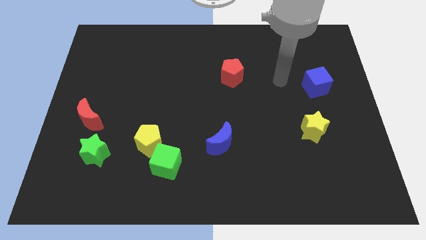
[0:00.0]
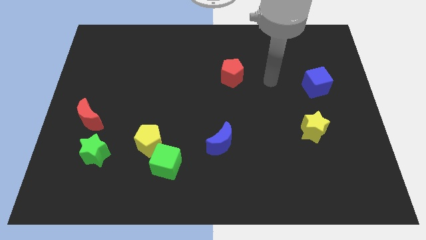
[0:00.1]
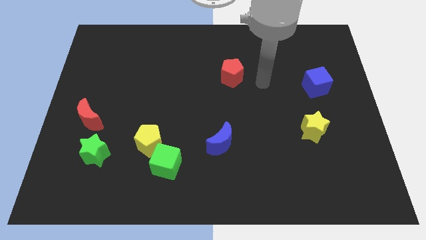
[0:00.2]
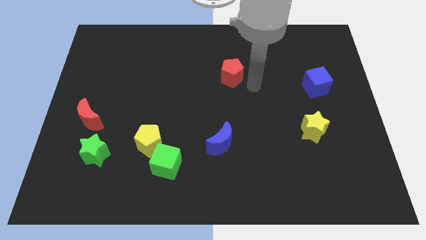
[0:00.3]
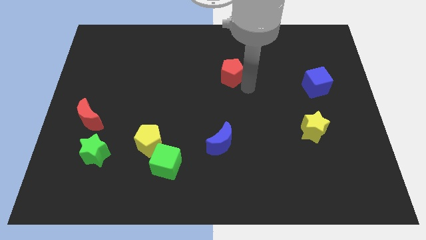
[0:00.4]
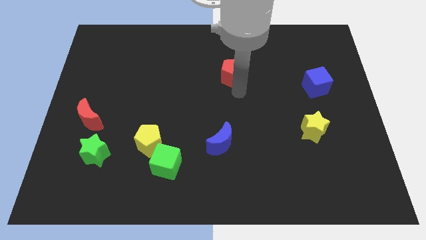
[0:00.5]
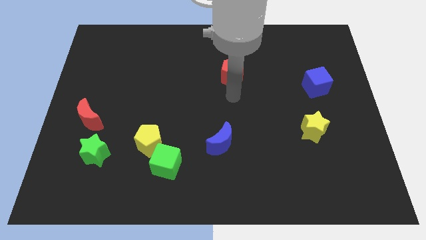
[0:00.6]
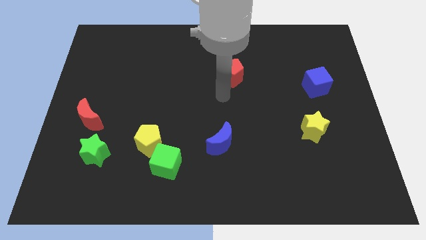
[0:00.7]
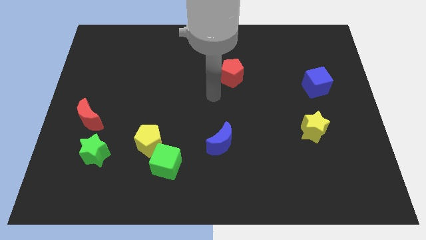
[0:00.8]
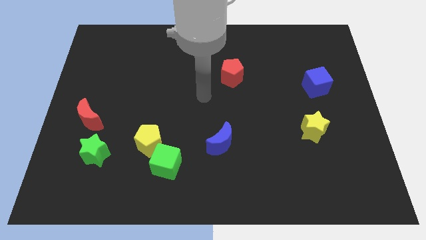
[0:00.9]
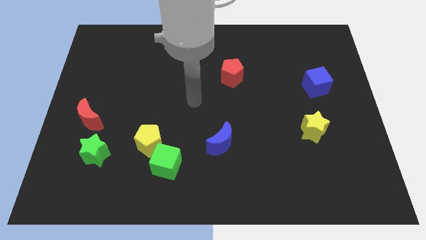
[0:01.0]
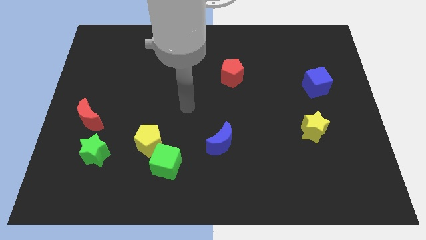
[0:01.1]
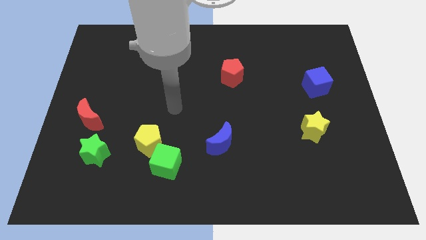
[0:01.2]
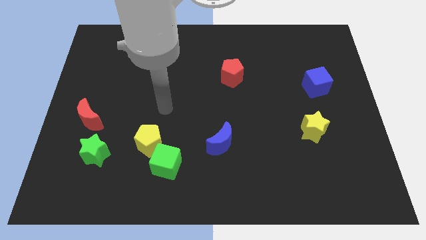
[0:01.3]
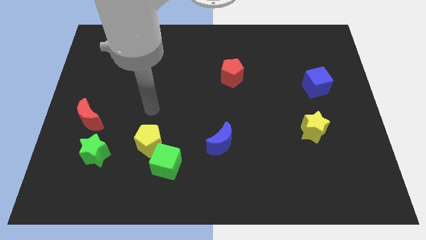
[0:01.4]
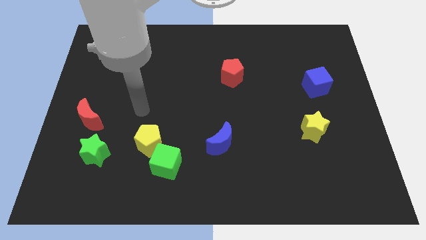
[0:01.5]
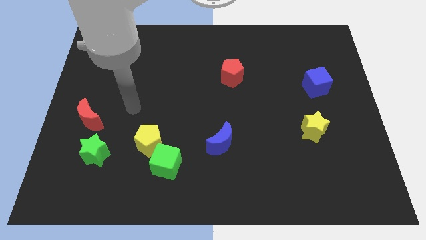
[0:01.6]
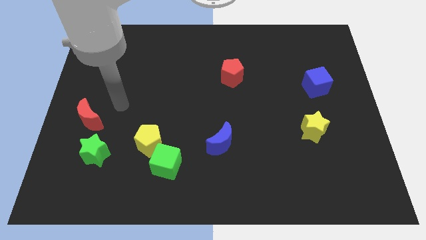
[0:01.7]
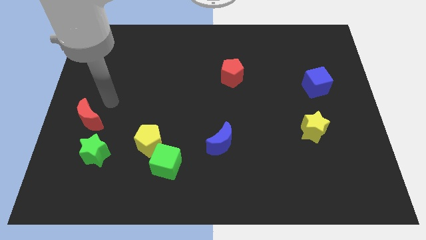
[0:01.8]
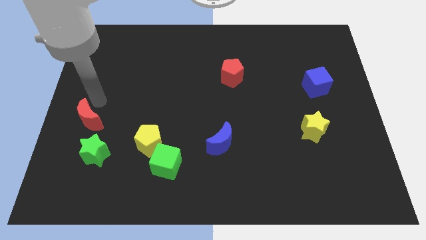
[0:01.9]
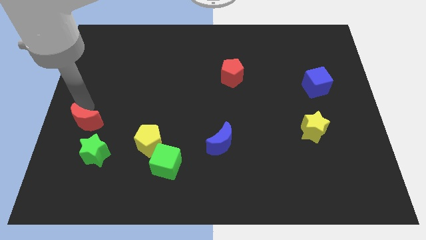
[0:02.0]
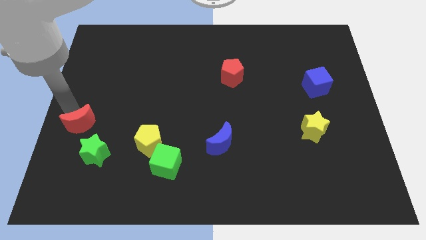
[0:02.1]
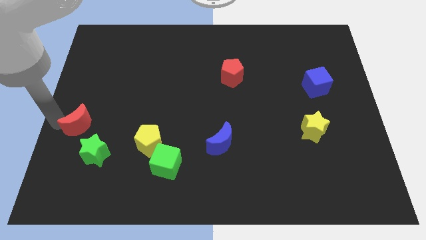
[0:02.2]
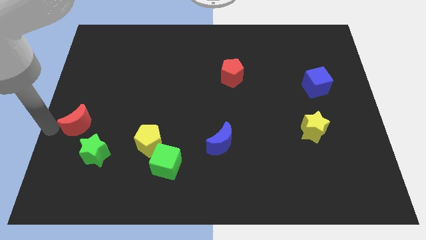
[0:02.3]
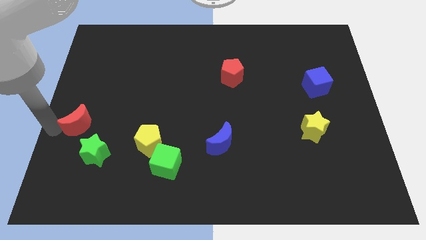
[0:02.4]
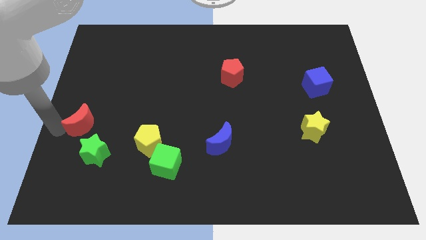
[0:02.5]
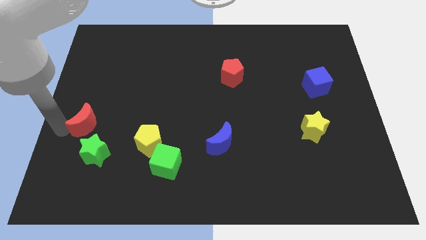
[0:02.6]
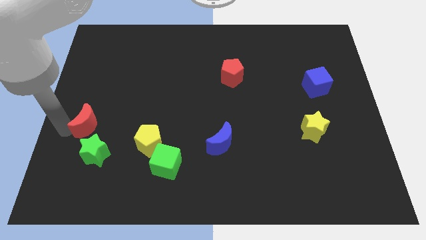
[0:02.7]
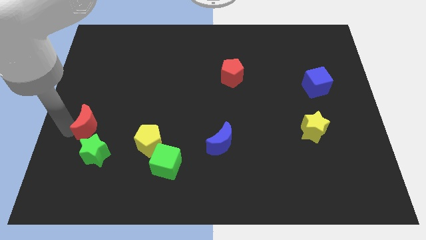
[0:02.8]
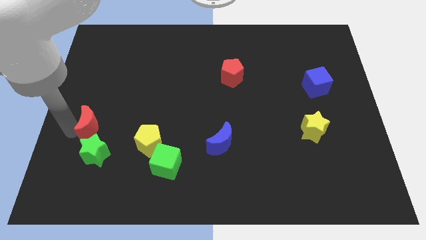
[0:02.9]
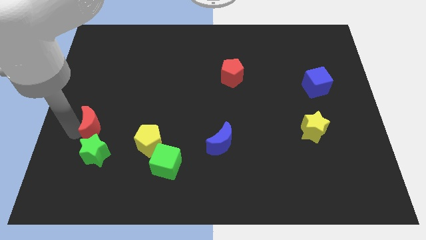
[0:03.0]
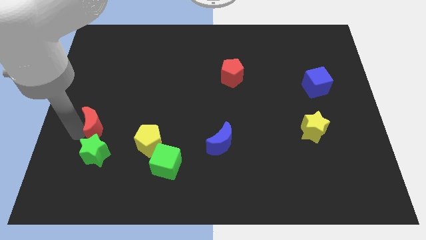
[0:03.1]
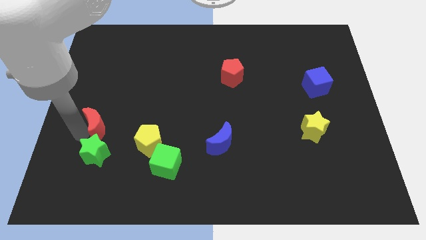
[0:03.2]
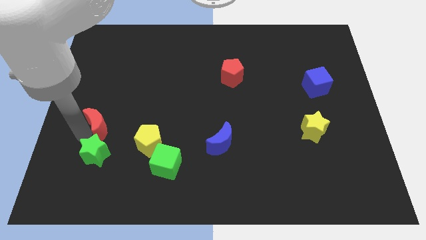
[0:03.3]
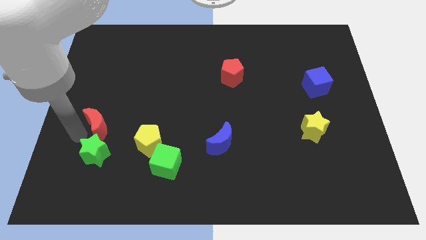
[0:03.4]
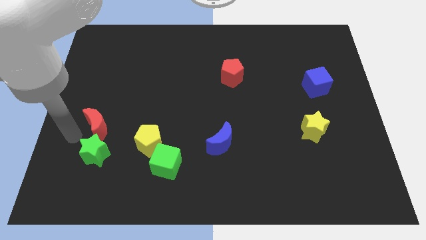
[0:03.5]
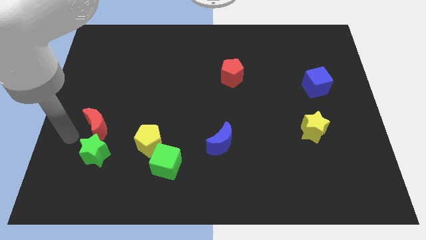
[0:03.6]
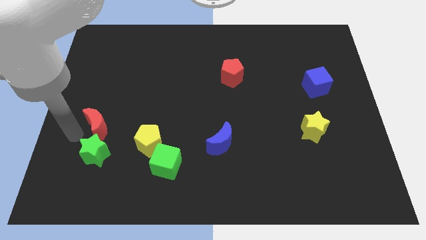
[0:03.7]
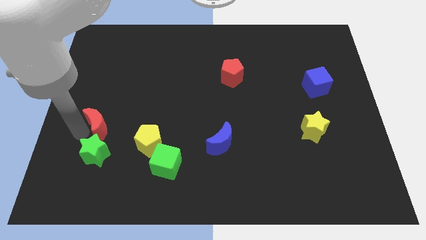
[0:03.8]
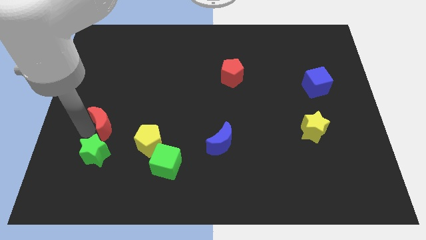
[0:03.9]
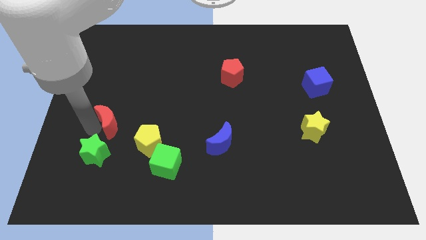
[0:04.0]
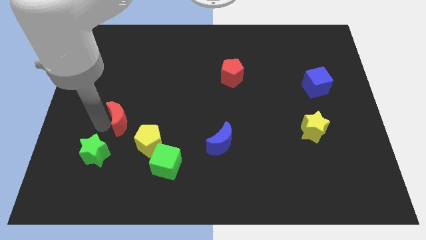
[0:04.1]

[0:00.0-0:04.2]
slightly slide the red moon right

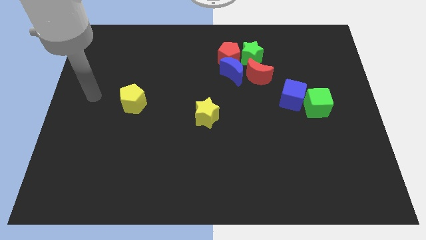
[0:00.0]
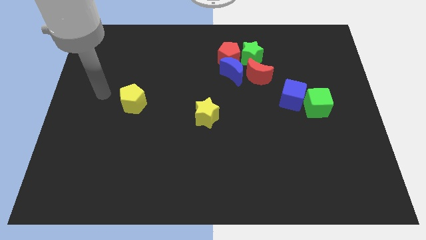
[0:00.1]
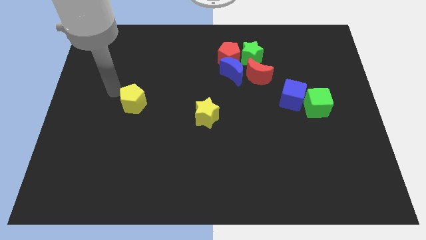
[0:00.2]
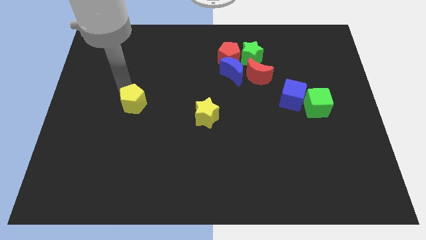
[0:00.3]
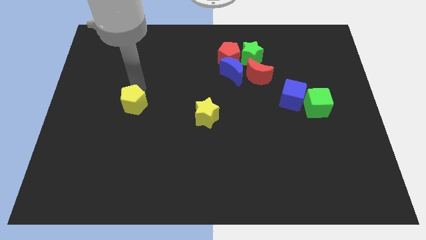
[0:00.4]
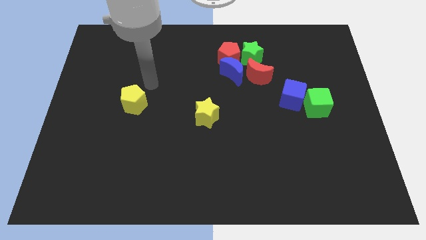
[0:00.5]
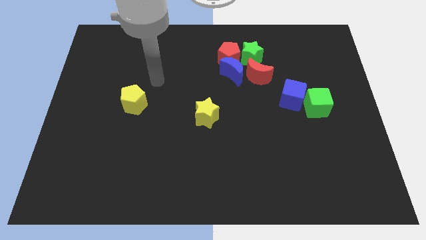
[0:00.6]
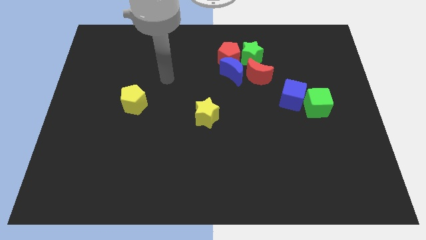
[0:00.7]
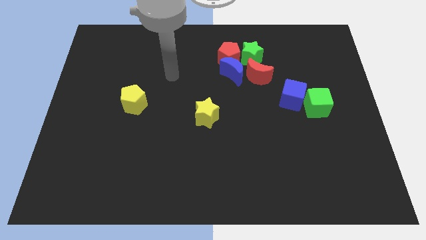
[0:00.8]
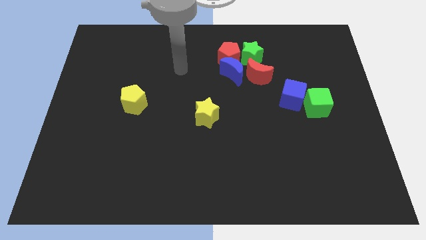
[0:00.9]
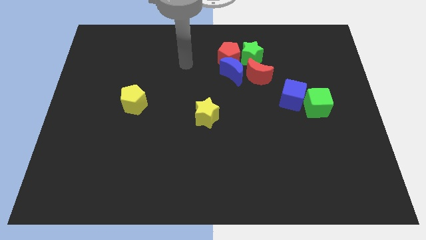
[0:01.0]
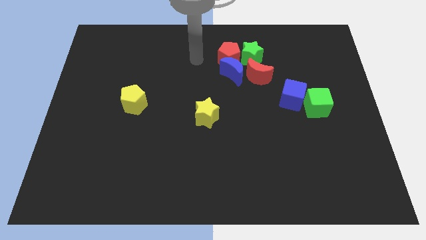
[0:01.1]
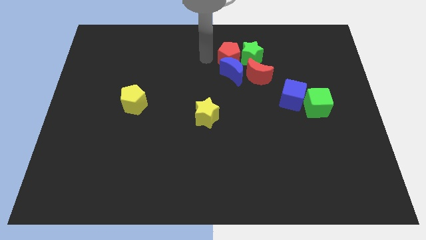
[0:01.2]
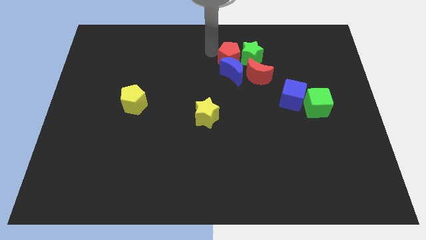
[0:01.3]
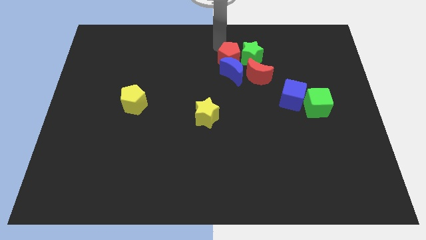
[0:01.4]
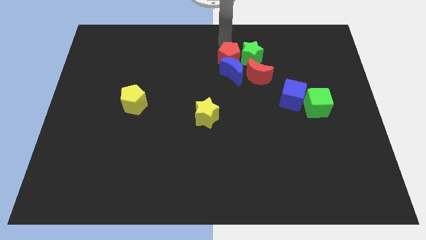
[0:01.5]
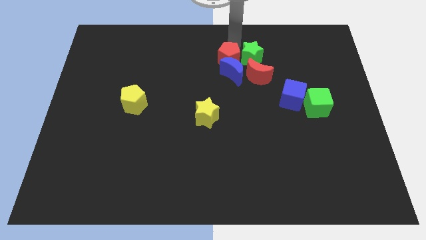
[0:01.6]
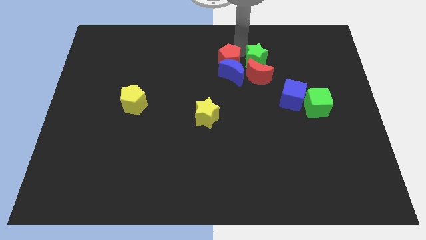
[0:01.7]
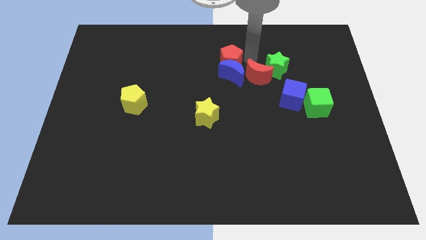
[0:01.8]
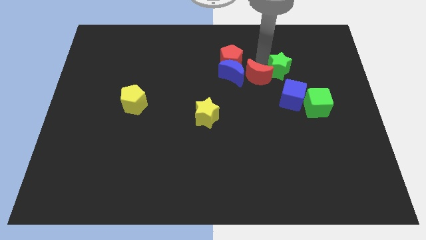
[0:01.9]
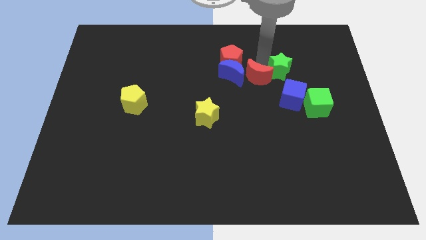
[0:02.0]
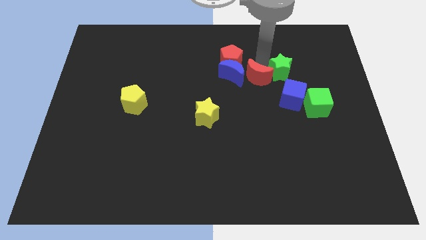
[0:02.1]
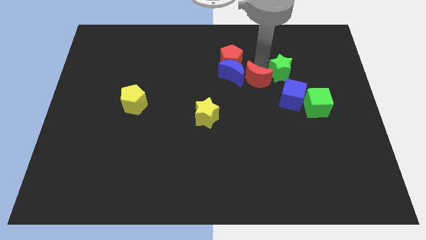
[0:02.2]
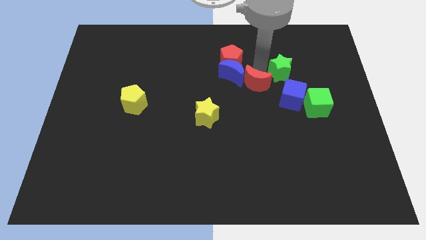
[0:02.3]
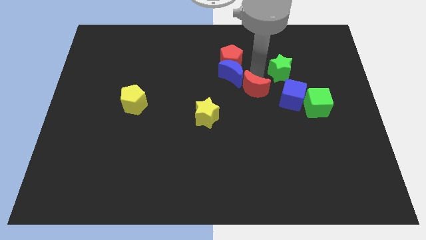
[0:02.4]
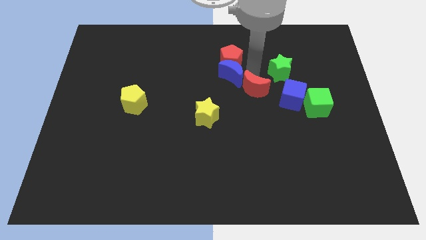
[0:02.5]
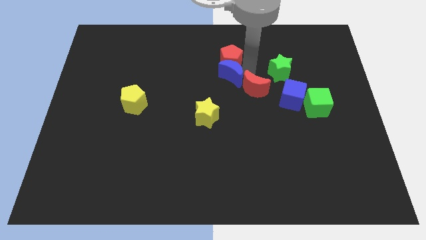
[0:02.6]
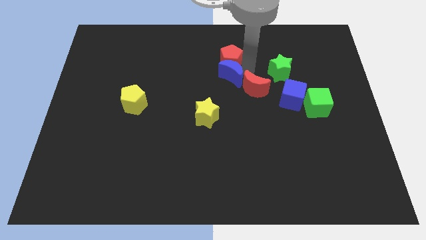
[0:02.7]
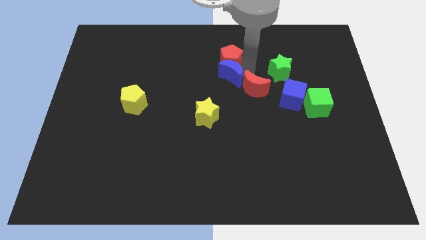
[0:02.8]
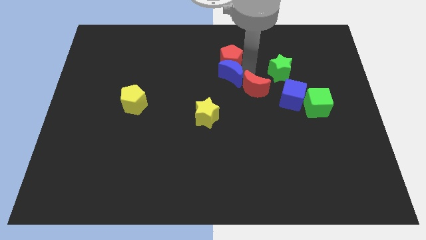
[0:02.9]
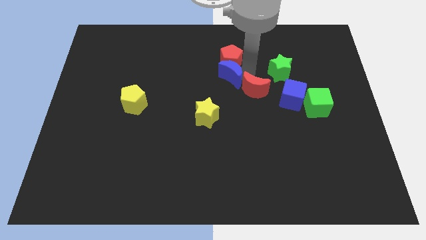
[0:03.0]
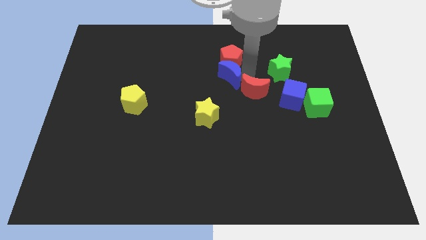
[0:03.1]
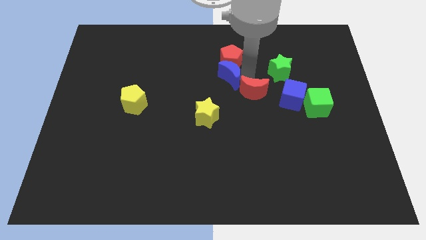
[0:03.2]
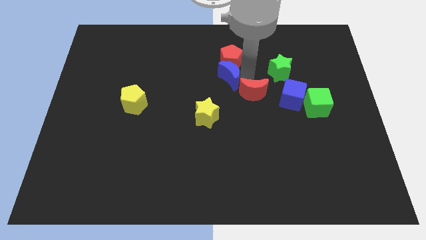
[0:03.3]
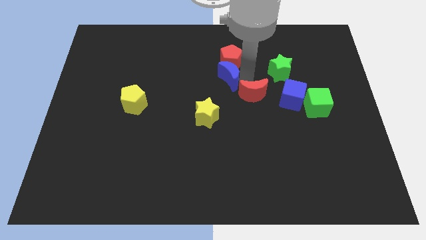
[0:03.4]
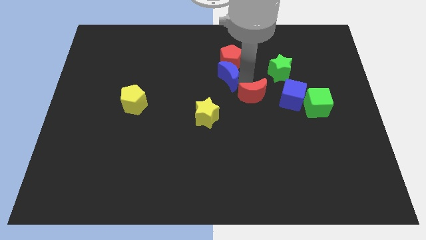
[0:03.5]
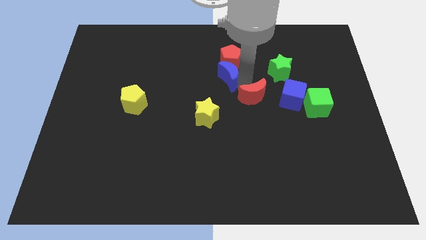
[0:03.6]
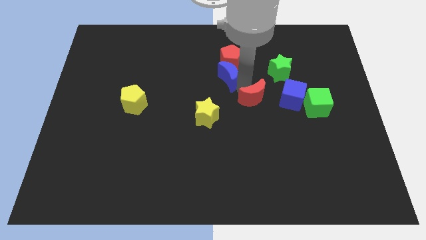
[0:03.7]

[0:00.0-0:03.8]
move the red moon a bit downwards
